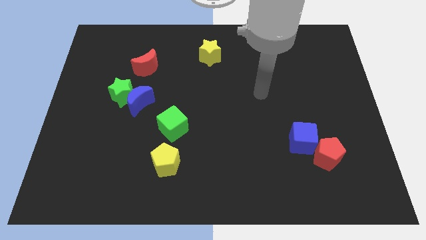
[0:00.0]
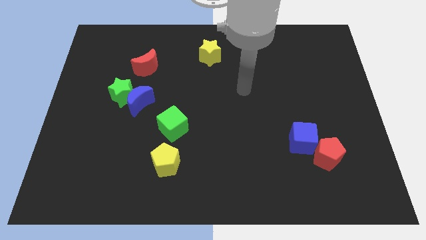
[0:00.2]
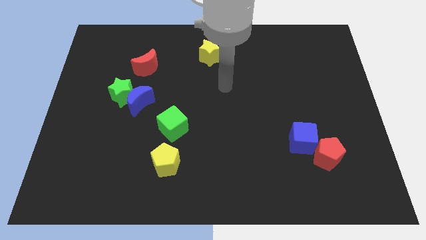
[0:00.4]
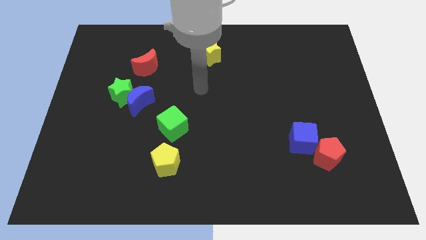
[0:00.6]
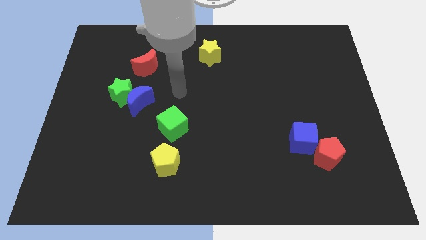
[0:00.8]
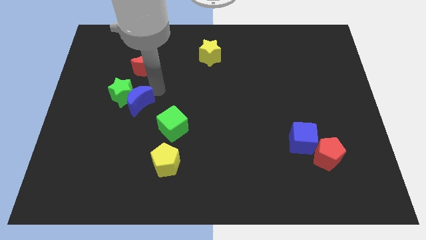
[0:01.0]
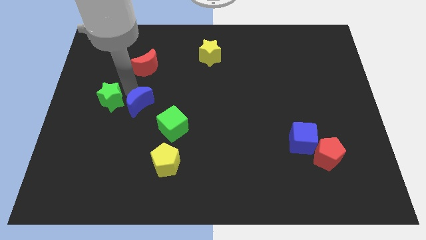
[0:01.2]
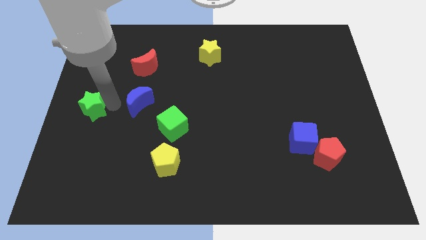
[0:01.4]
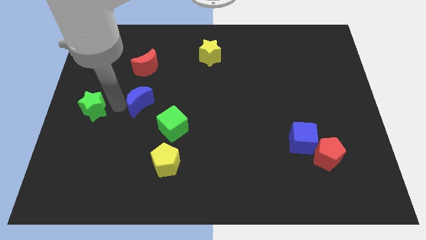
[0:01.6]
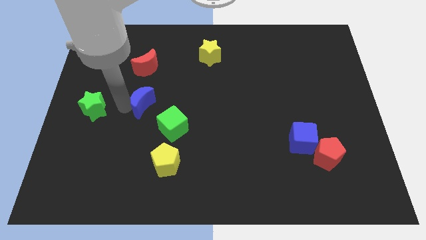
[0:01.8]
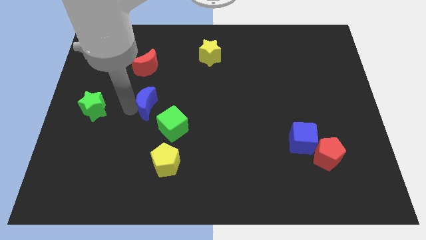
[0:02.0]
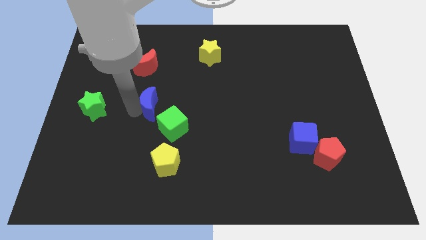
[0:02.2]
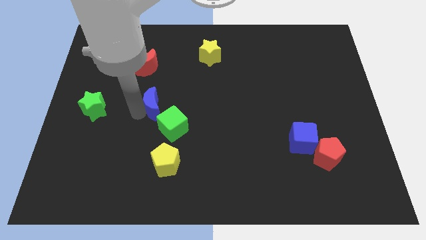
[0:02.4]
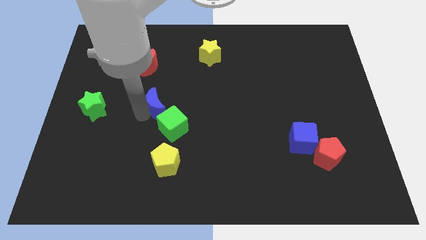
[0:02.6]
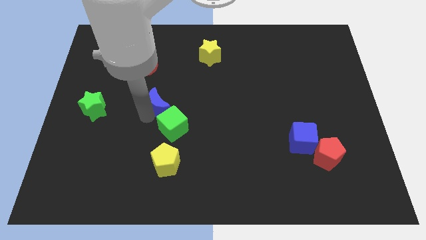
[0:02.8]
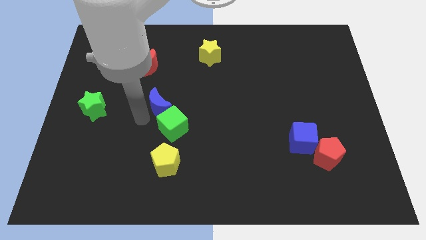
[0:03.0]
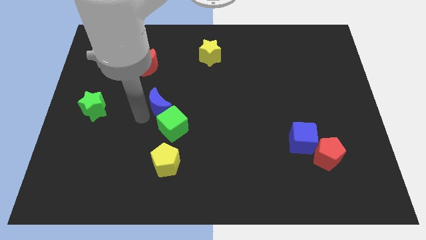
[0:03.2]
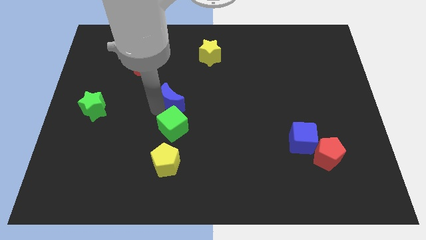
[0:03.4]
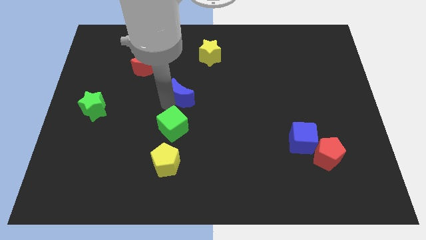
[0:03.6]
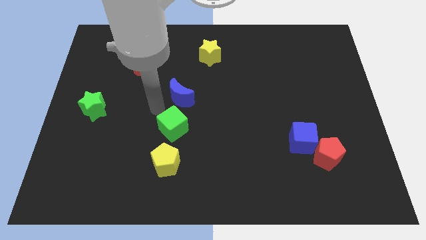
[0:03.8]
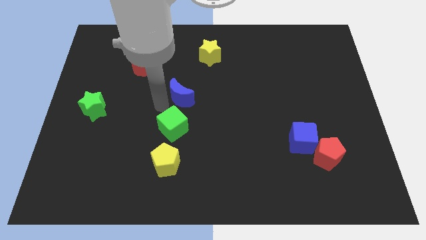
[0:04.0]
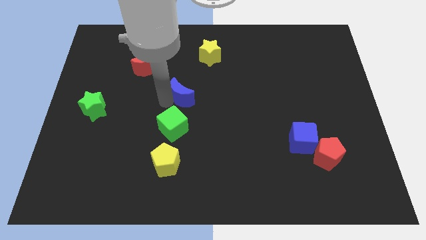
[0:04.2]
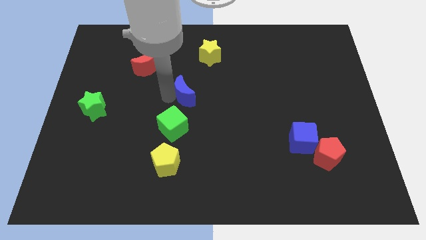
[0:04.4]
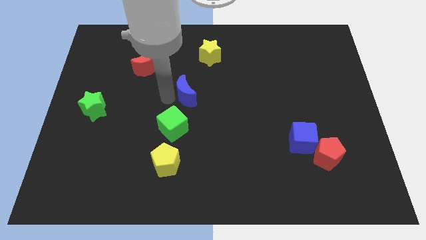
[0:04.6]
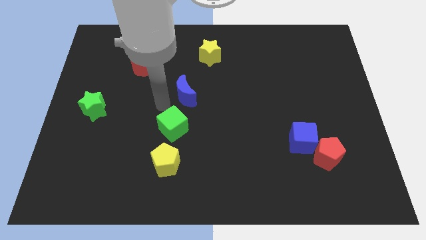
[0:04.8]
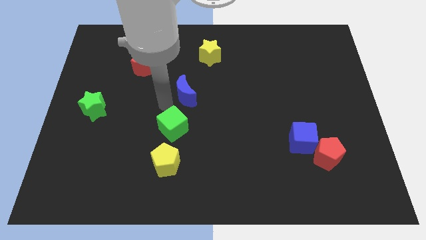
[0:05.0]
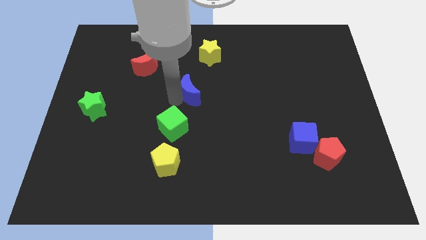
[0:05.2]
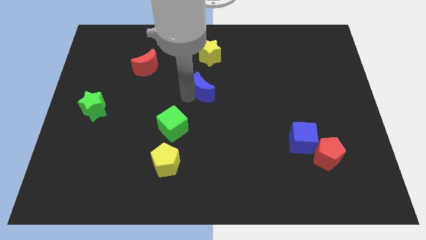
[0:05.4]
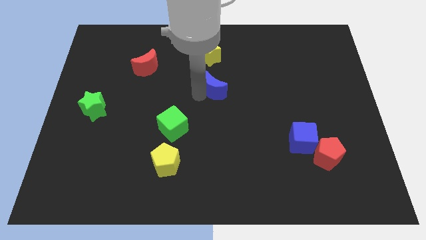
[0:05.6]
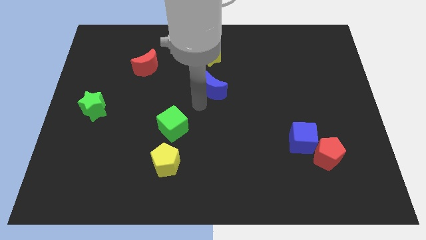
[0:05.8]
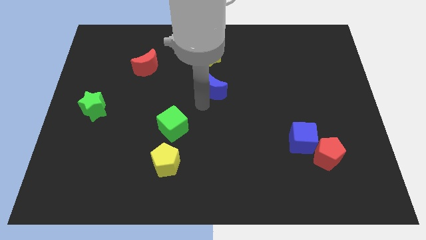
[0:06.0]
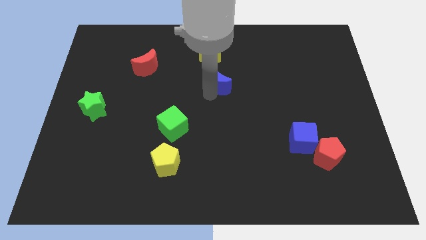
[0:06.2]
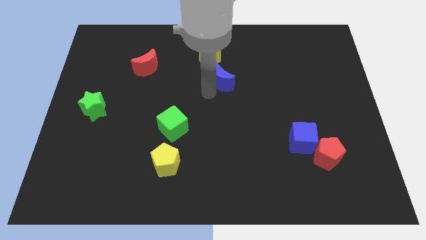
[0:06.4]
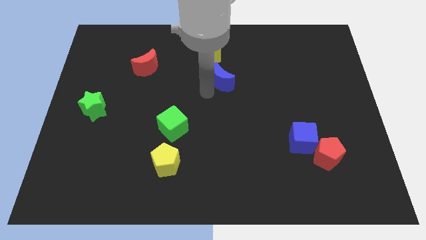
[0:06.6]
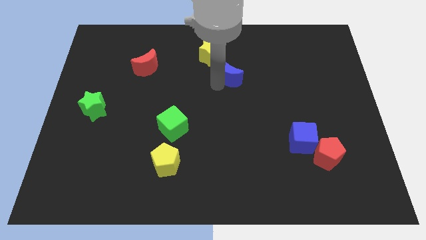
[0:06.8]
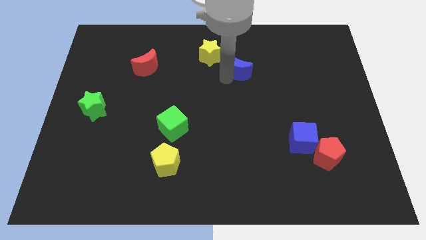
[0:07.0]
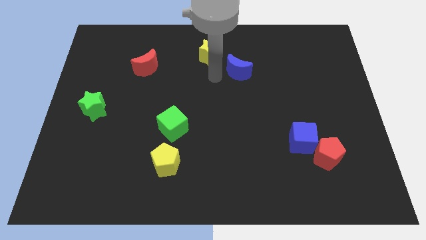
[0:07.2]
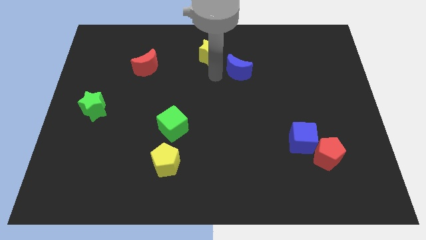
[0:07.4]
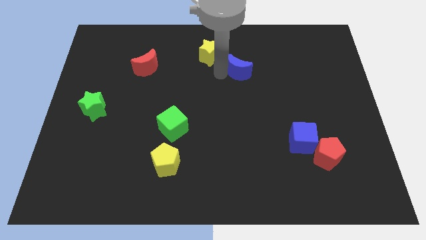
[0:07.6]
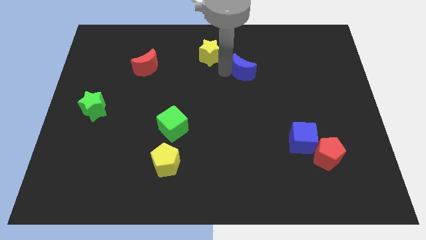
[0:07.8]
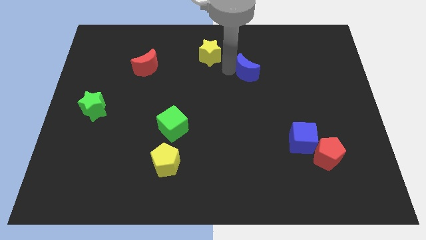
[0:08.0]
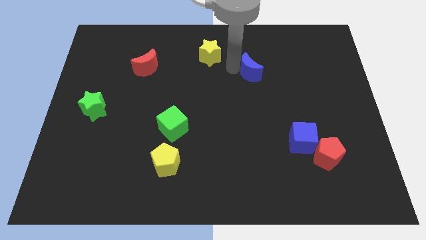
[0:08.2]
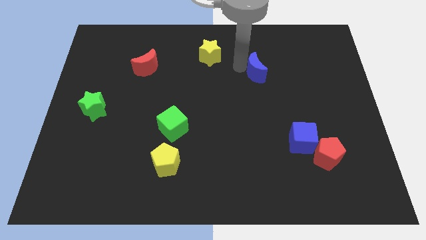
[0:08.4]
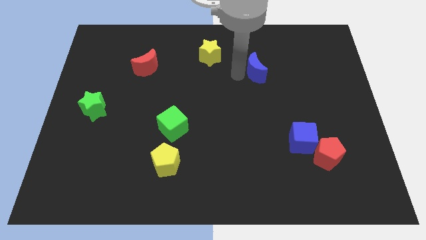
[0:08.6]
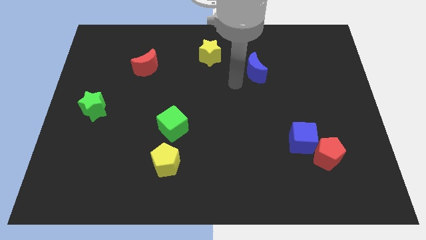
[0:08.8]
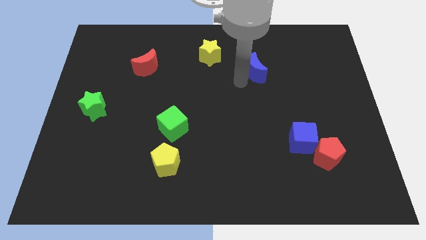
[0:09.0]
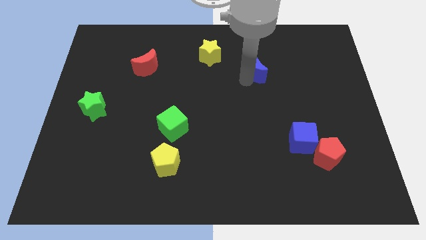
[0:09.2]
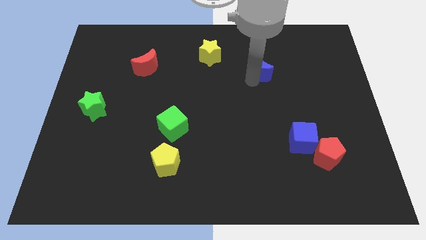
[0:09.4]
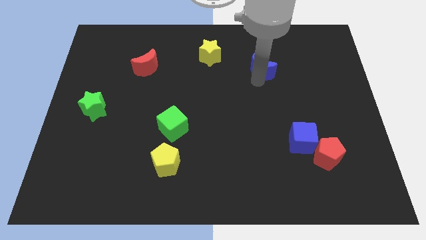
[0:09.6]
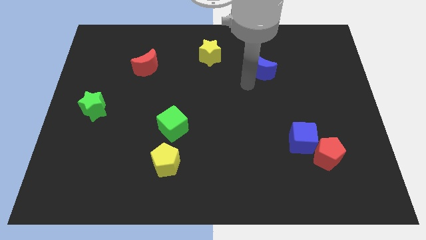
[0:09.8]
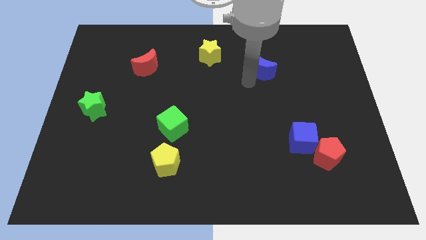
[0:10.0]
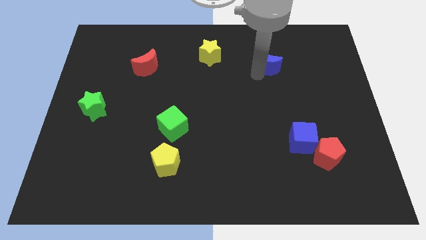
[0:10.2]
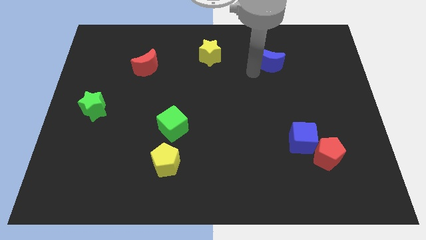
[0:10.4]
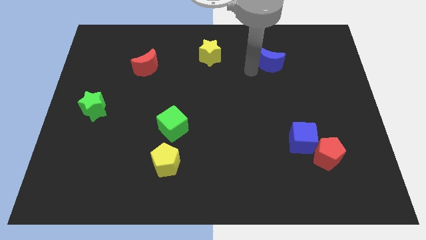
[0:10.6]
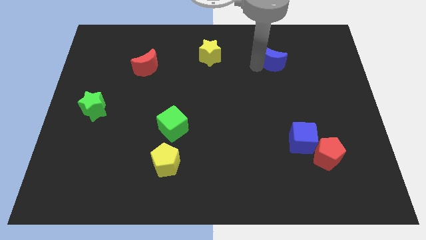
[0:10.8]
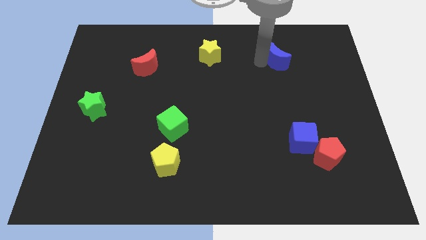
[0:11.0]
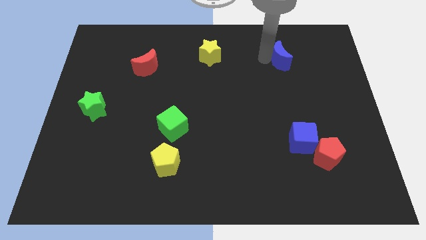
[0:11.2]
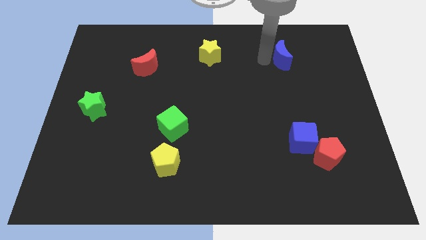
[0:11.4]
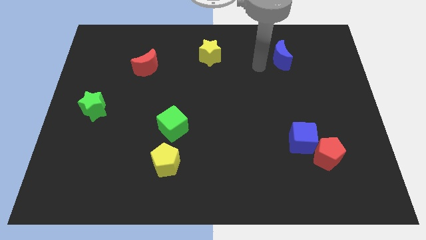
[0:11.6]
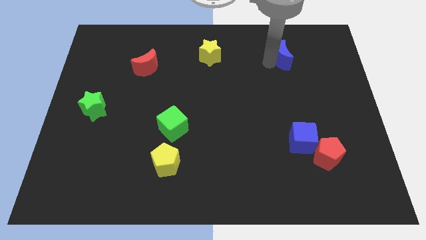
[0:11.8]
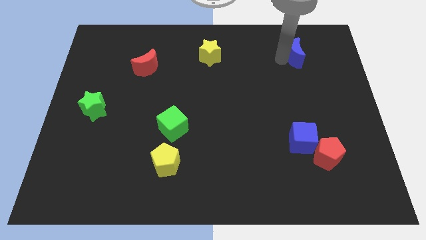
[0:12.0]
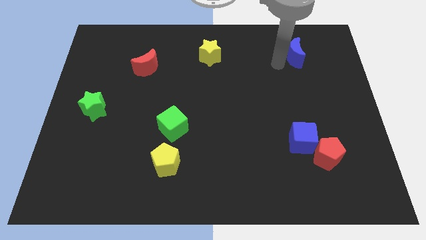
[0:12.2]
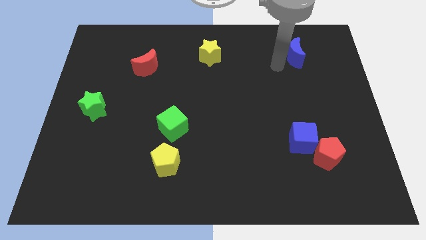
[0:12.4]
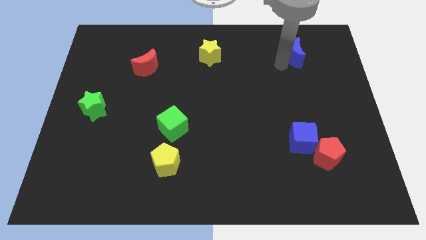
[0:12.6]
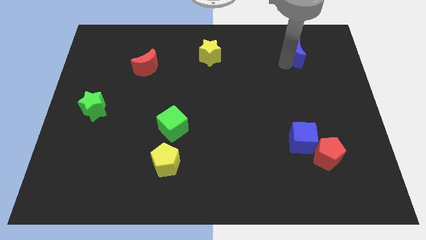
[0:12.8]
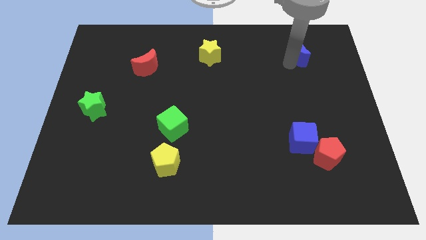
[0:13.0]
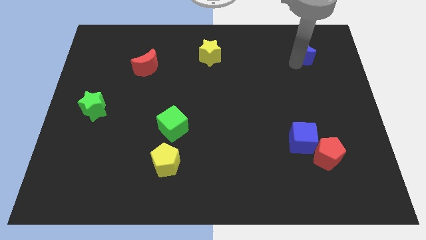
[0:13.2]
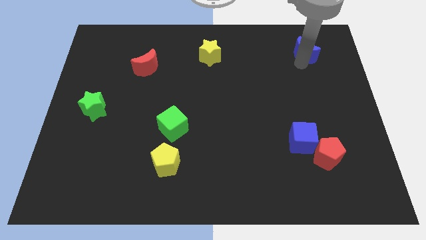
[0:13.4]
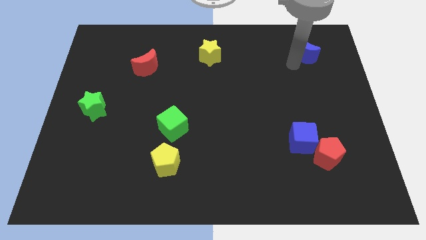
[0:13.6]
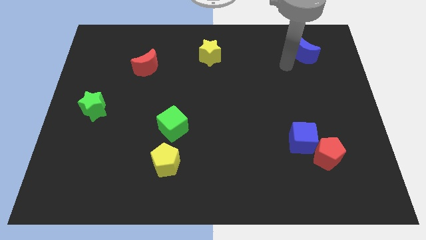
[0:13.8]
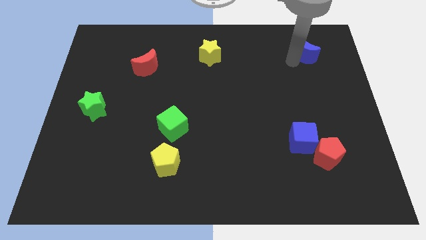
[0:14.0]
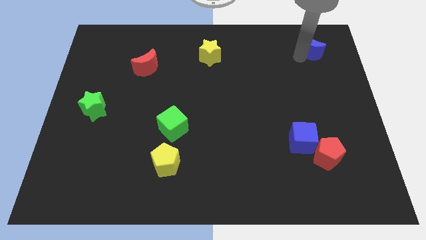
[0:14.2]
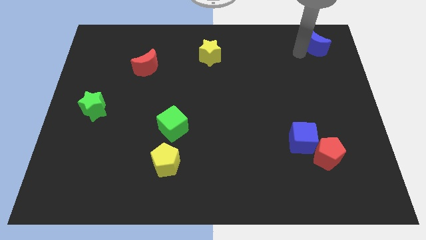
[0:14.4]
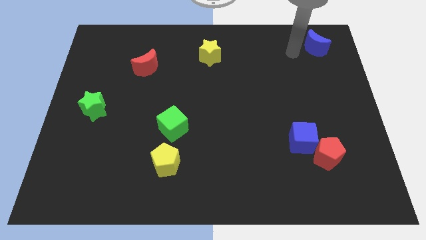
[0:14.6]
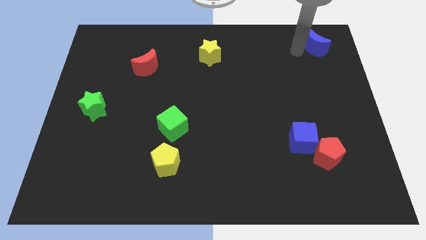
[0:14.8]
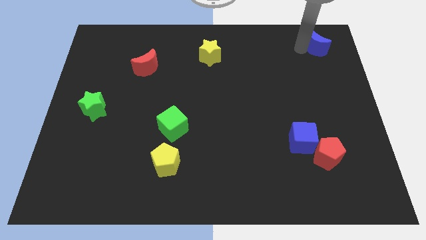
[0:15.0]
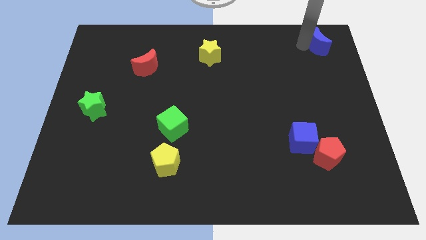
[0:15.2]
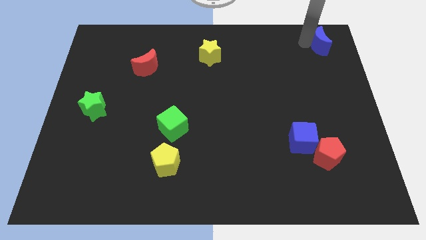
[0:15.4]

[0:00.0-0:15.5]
slide the blue moon to the upper right corner
